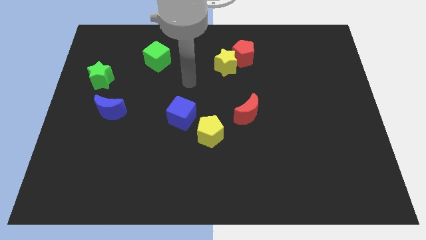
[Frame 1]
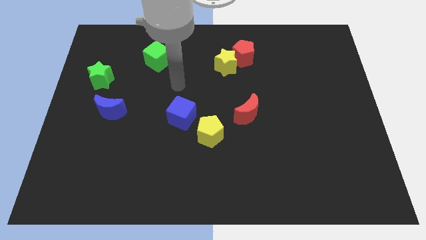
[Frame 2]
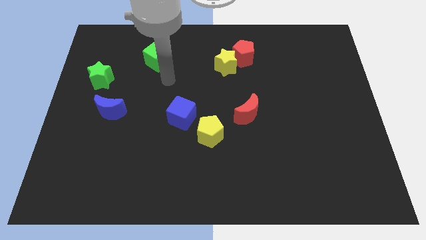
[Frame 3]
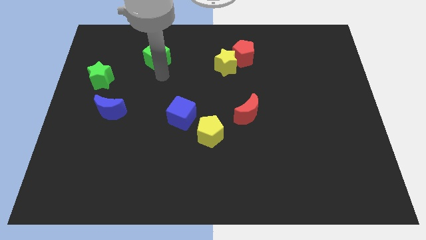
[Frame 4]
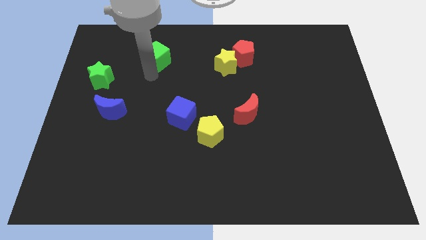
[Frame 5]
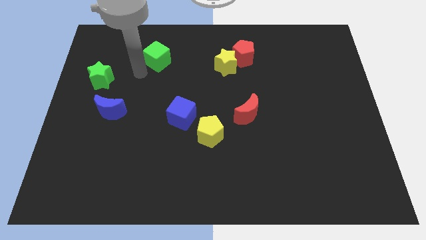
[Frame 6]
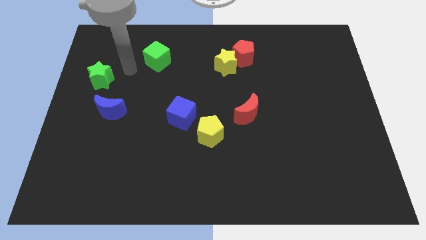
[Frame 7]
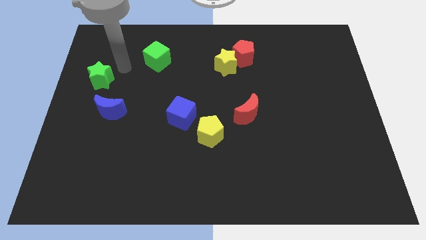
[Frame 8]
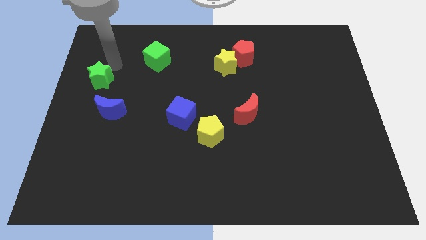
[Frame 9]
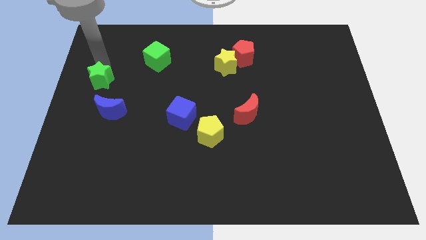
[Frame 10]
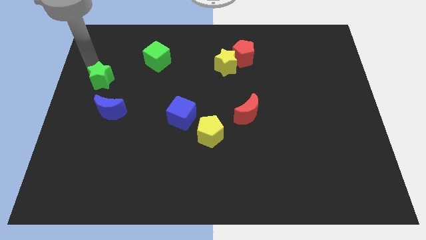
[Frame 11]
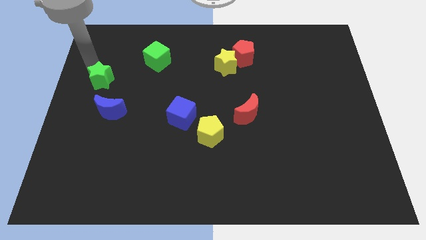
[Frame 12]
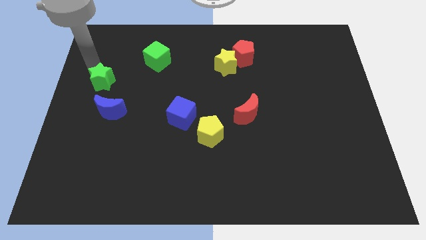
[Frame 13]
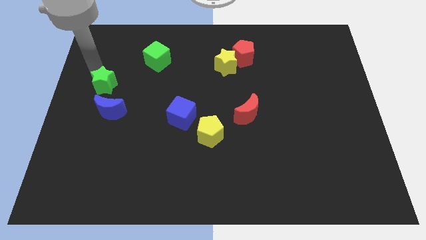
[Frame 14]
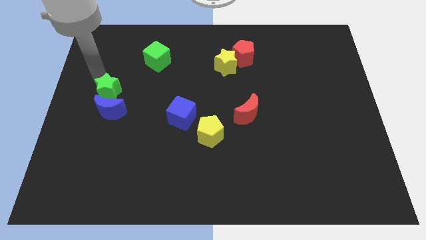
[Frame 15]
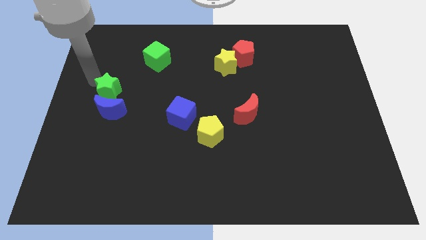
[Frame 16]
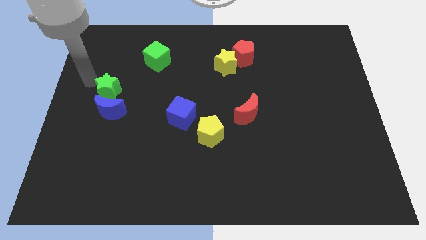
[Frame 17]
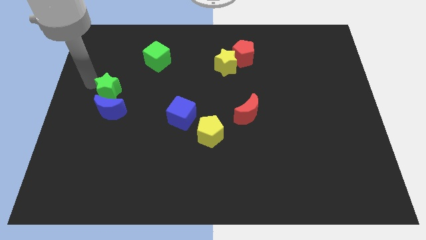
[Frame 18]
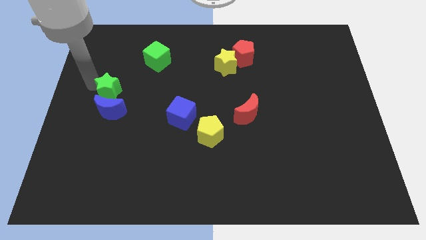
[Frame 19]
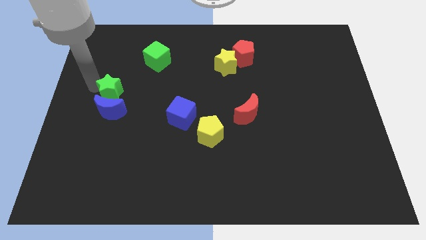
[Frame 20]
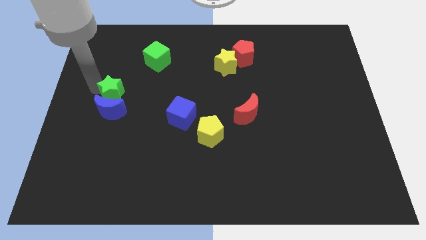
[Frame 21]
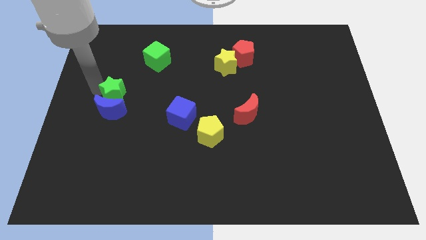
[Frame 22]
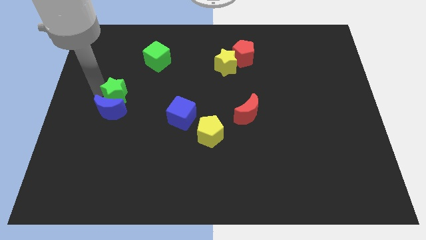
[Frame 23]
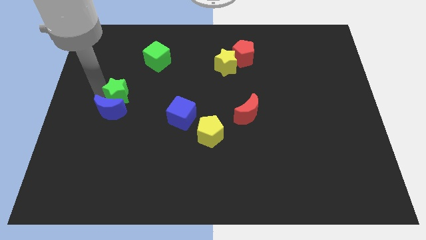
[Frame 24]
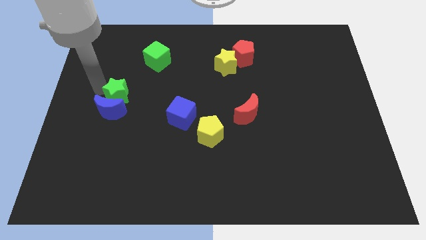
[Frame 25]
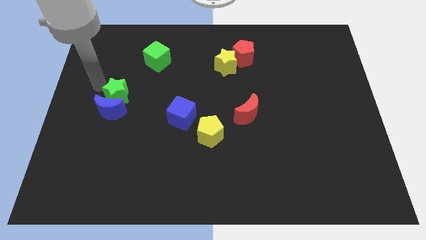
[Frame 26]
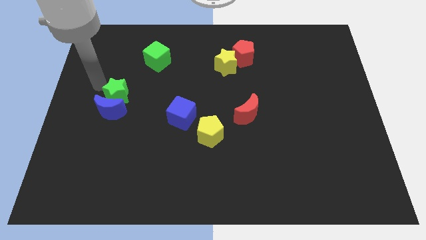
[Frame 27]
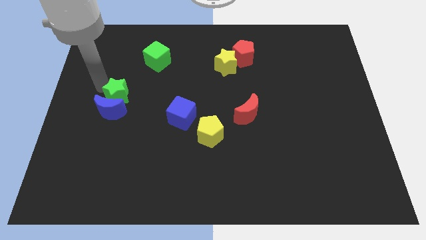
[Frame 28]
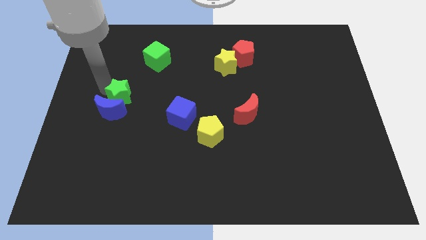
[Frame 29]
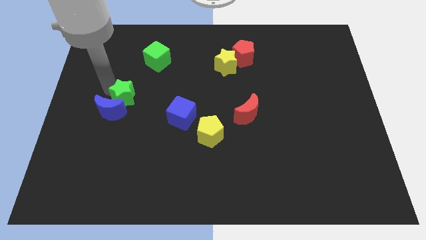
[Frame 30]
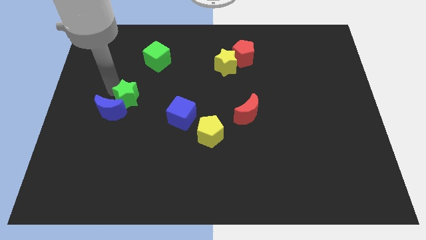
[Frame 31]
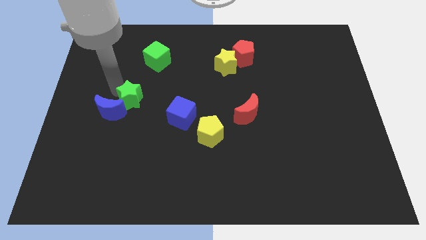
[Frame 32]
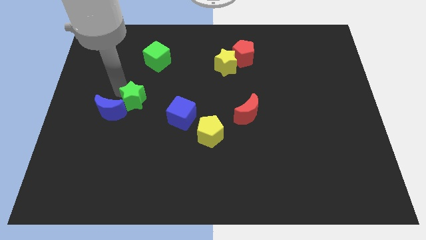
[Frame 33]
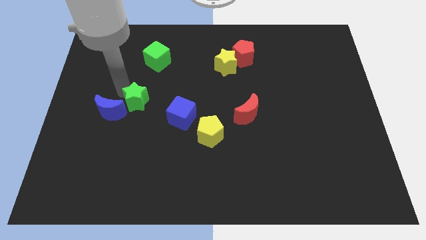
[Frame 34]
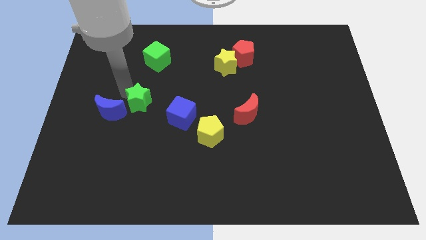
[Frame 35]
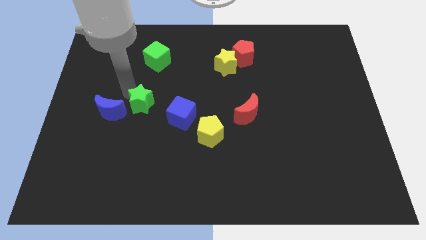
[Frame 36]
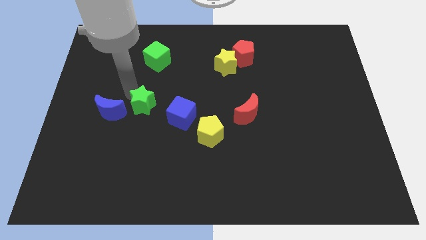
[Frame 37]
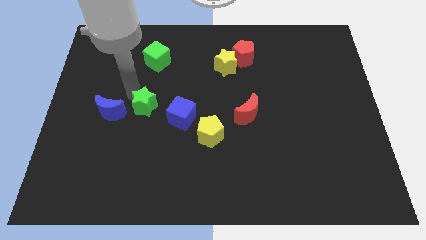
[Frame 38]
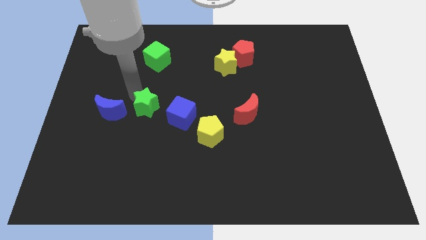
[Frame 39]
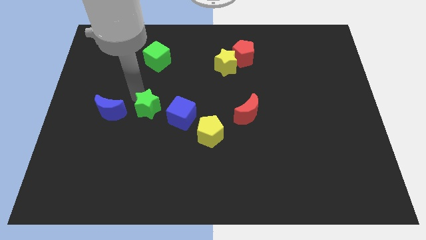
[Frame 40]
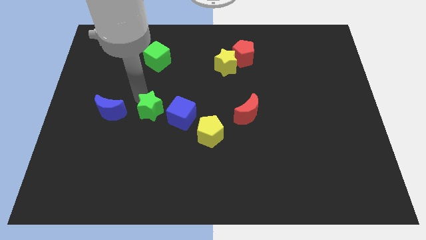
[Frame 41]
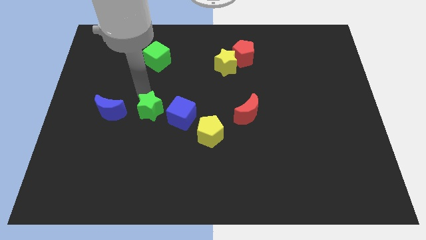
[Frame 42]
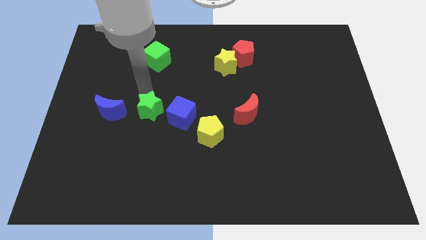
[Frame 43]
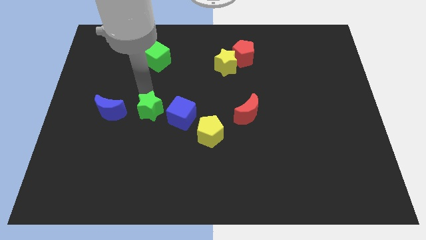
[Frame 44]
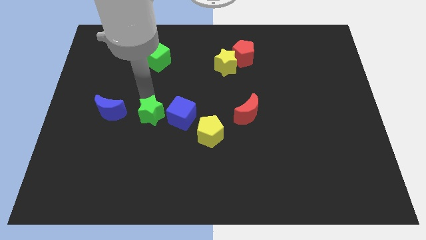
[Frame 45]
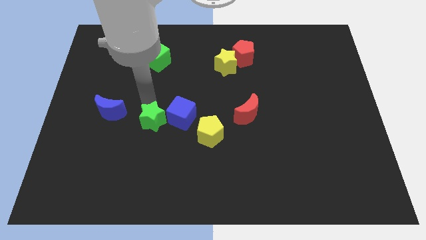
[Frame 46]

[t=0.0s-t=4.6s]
push the green star diagonally down and to the left of the blue cube

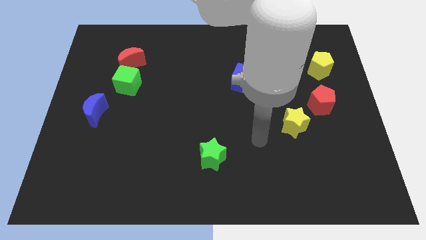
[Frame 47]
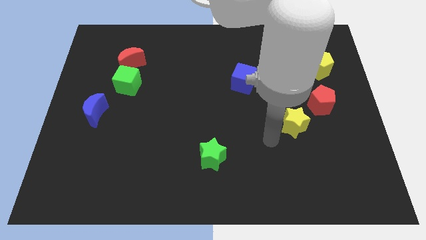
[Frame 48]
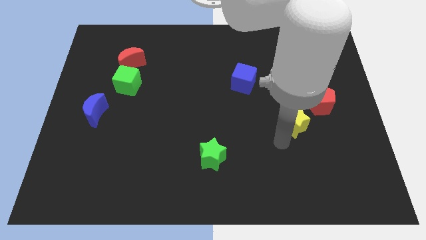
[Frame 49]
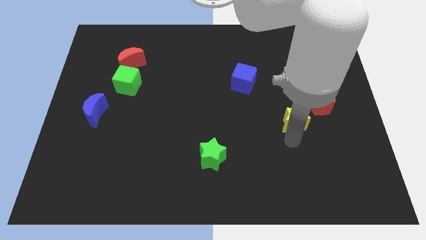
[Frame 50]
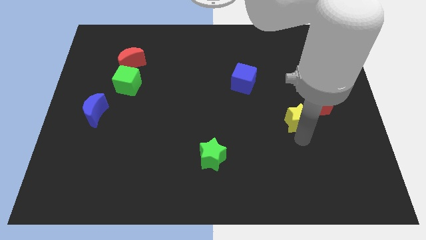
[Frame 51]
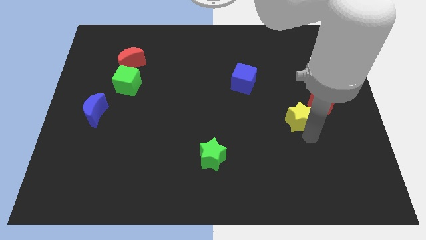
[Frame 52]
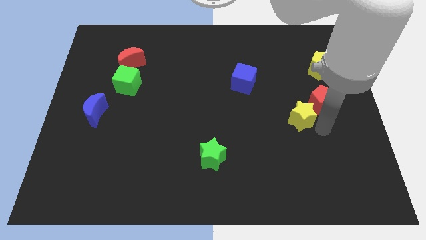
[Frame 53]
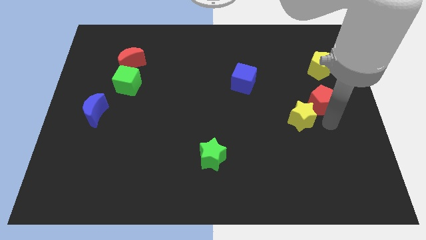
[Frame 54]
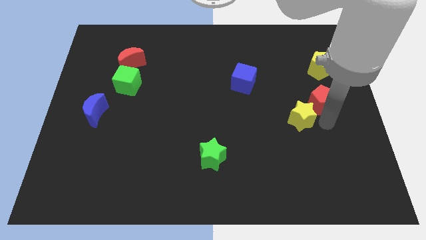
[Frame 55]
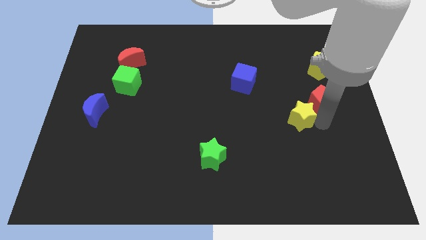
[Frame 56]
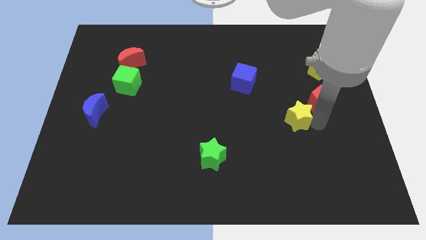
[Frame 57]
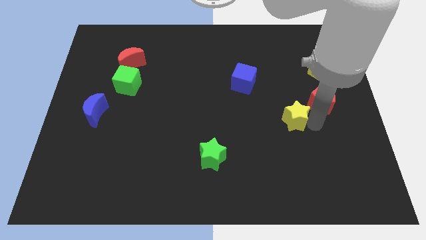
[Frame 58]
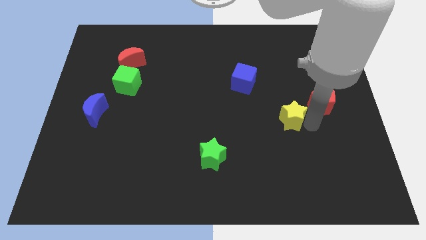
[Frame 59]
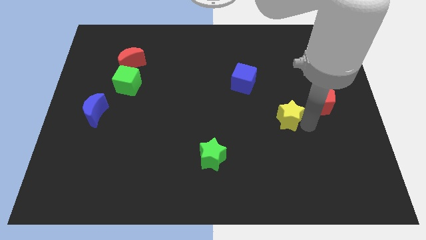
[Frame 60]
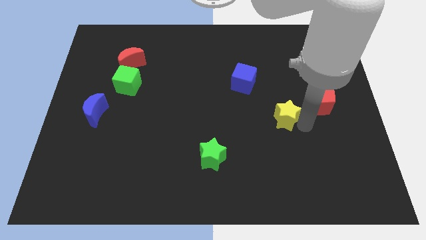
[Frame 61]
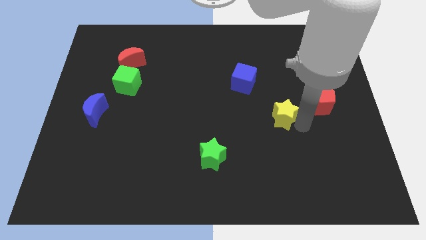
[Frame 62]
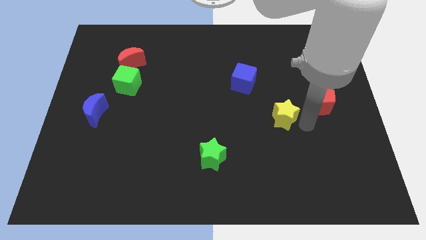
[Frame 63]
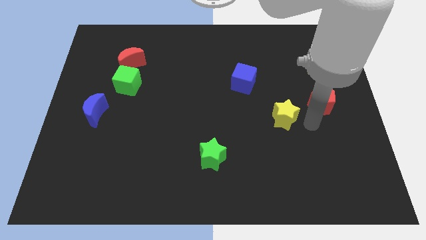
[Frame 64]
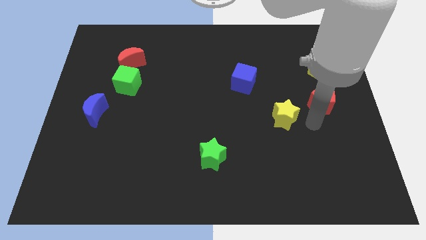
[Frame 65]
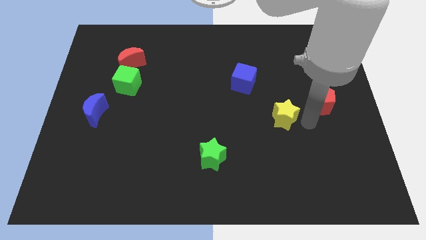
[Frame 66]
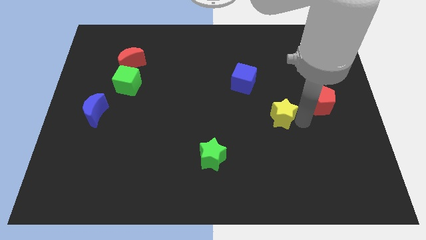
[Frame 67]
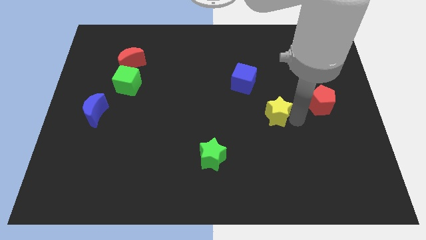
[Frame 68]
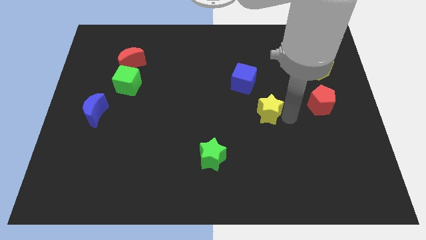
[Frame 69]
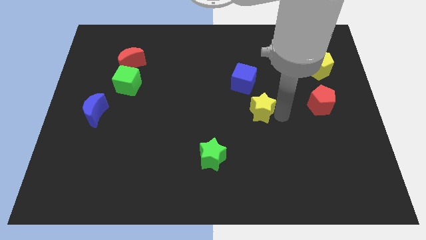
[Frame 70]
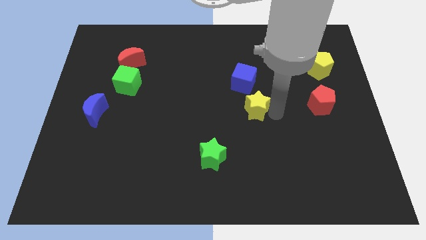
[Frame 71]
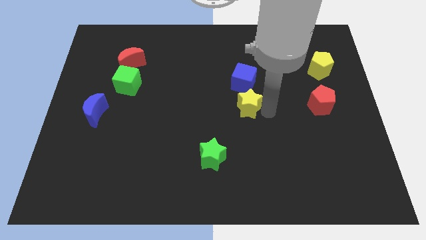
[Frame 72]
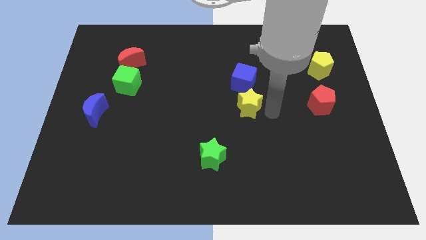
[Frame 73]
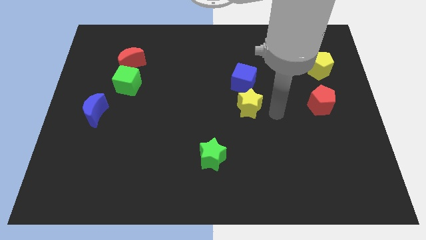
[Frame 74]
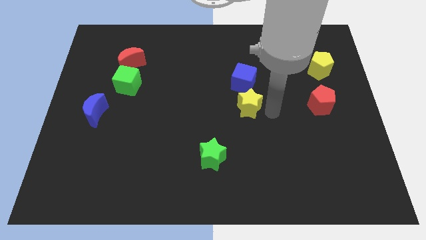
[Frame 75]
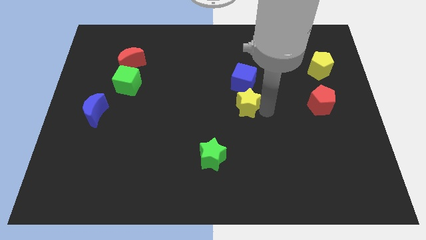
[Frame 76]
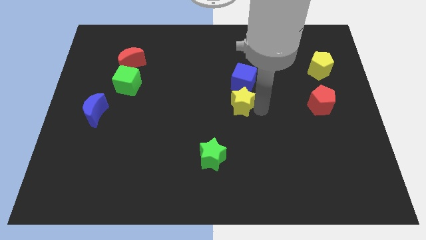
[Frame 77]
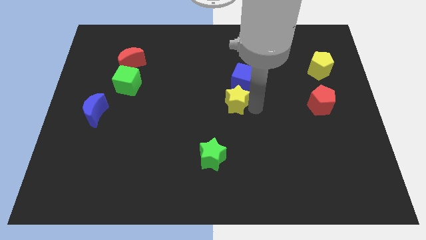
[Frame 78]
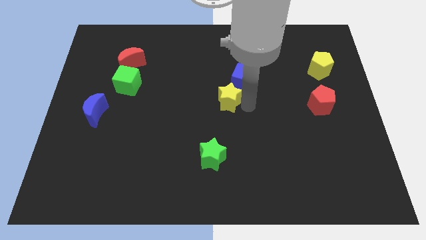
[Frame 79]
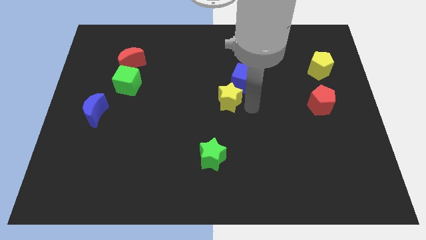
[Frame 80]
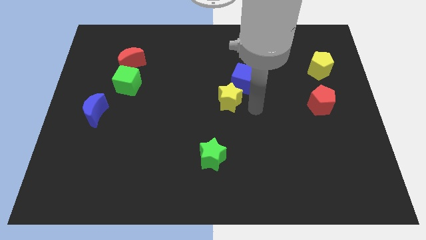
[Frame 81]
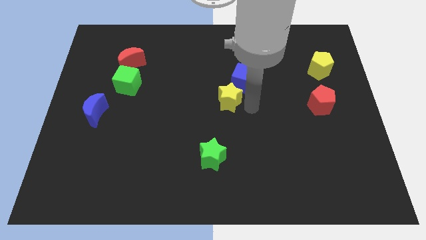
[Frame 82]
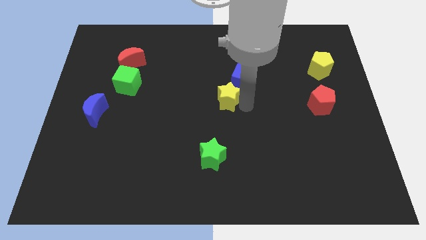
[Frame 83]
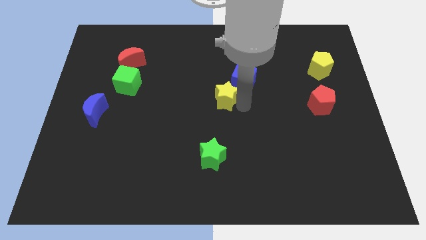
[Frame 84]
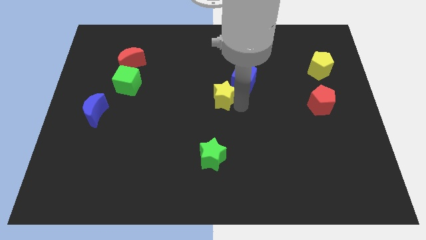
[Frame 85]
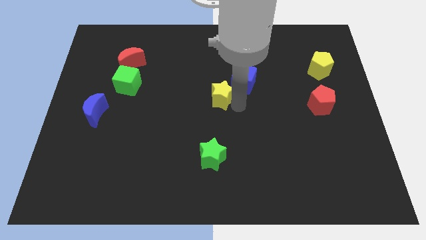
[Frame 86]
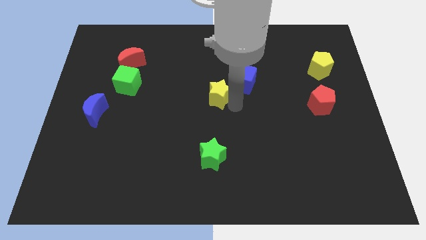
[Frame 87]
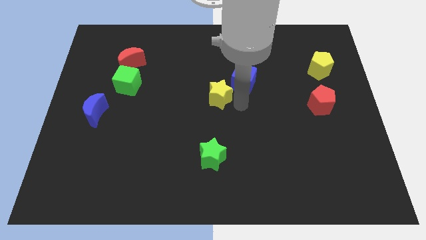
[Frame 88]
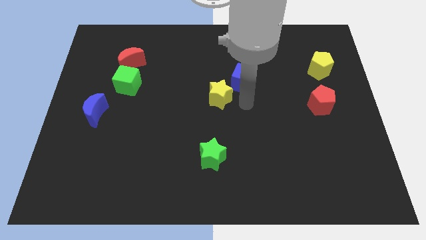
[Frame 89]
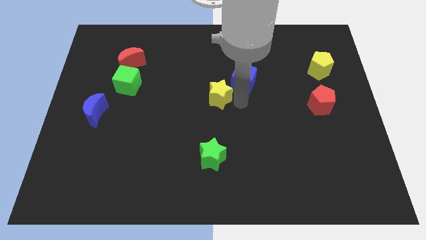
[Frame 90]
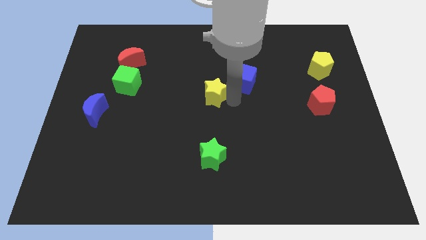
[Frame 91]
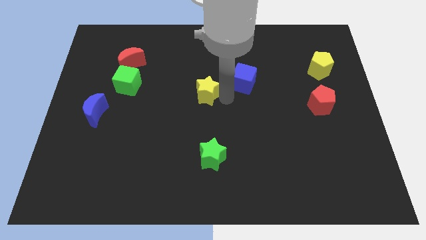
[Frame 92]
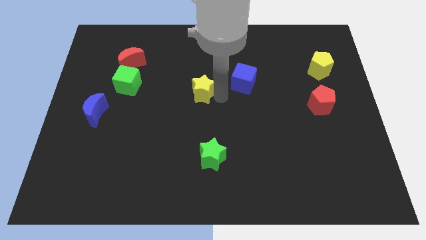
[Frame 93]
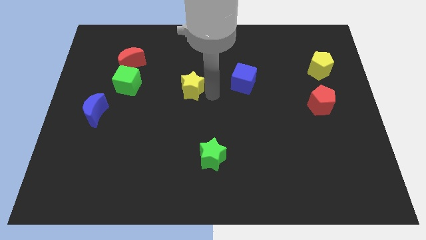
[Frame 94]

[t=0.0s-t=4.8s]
put the yellow star to the right side of the green cube
